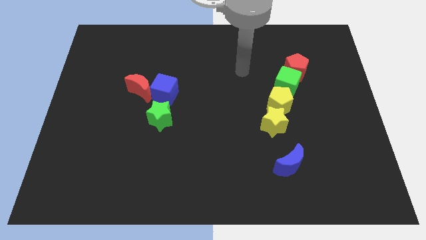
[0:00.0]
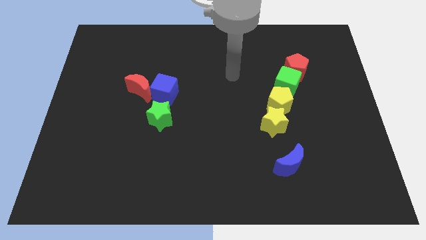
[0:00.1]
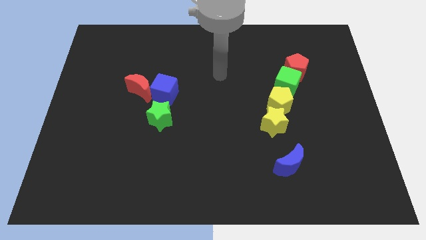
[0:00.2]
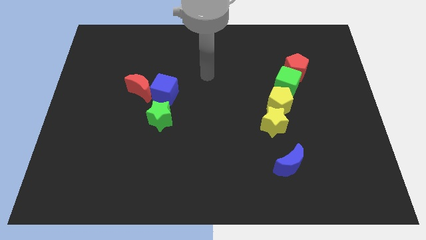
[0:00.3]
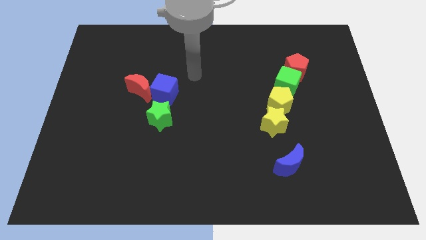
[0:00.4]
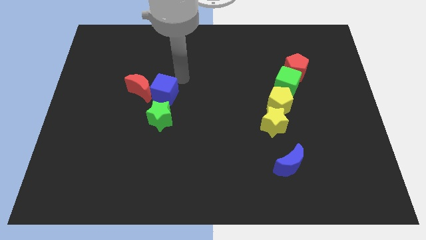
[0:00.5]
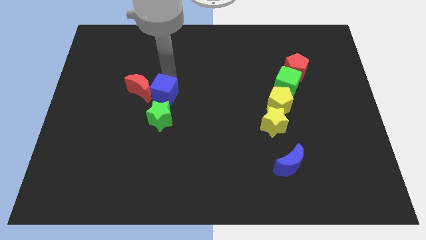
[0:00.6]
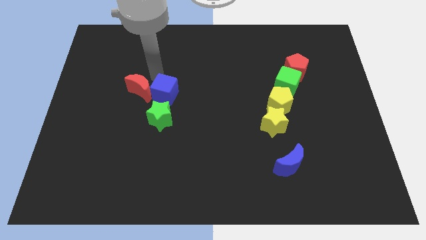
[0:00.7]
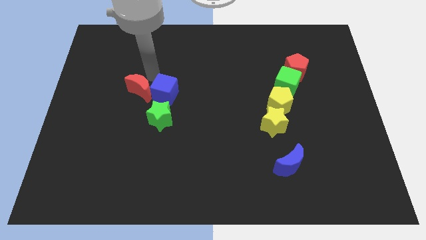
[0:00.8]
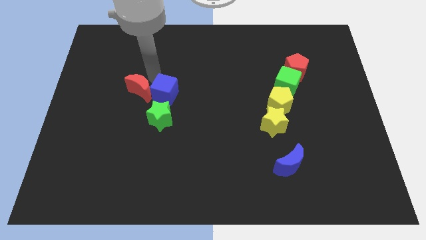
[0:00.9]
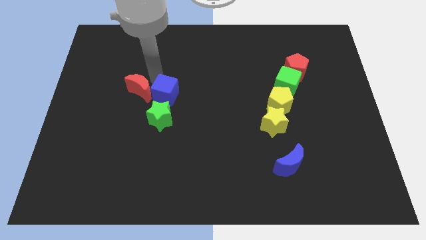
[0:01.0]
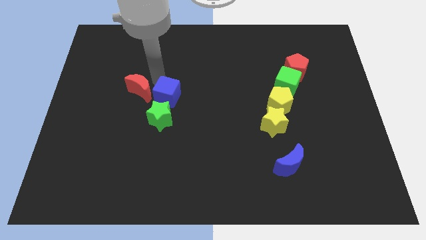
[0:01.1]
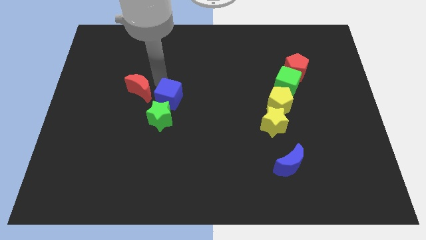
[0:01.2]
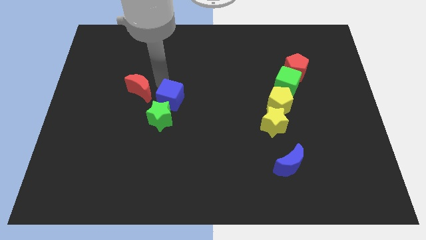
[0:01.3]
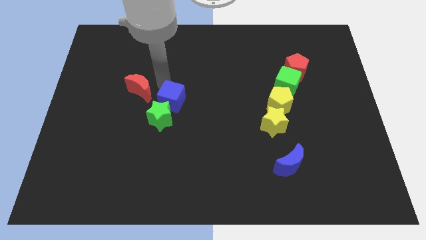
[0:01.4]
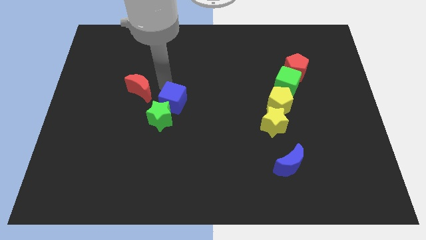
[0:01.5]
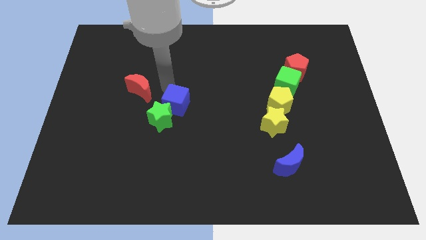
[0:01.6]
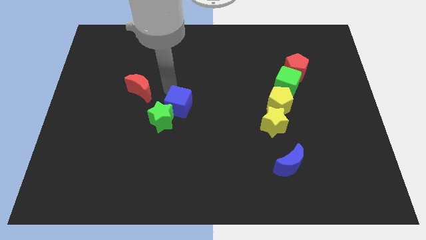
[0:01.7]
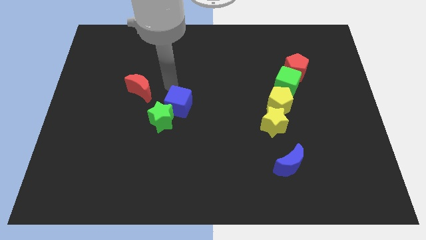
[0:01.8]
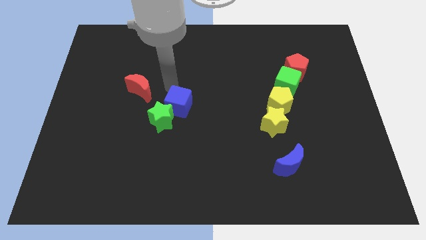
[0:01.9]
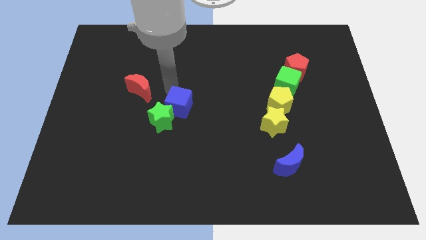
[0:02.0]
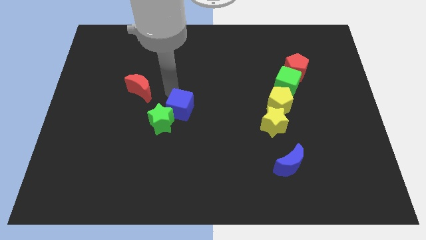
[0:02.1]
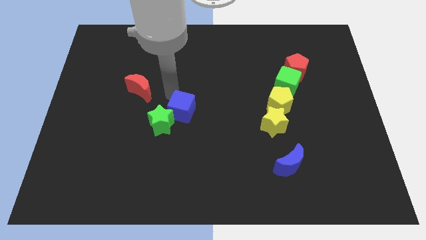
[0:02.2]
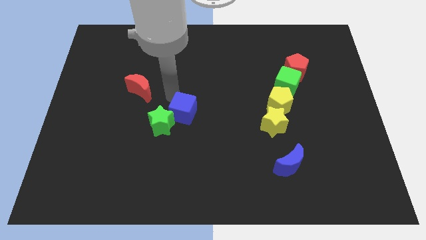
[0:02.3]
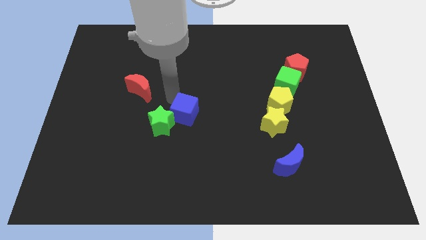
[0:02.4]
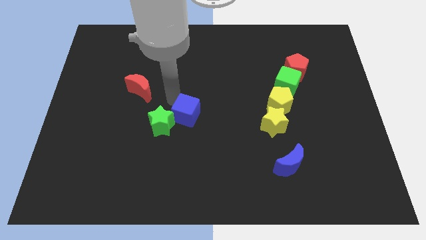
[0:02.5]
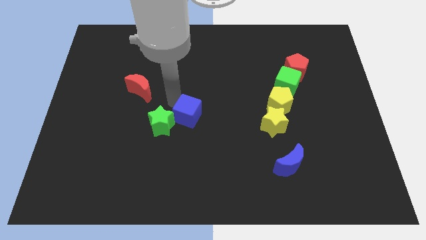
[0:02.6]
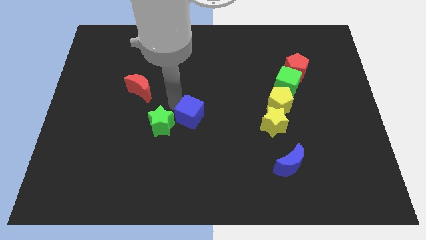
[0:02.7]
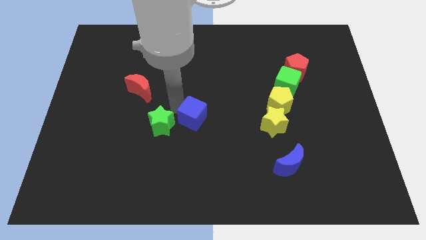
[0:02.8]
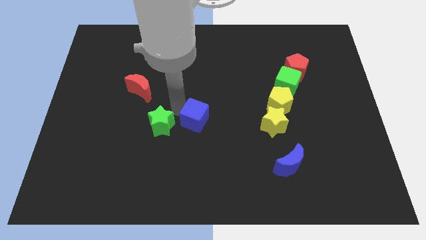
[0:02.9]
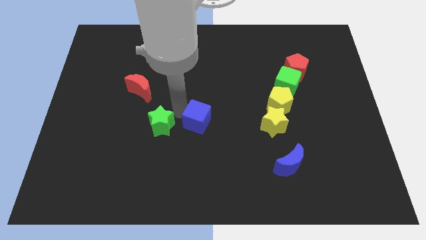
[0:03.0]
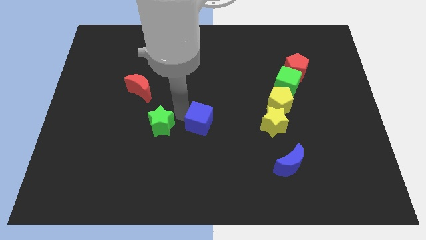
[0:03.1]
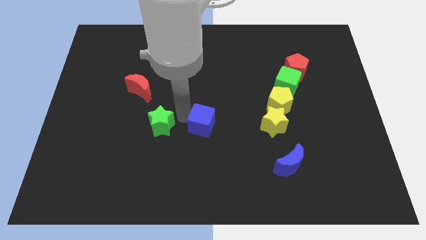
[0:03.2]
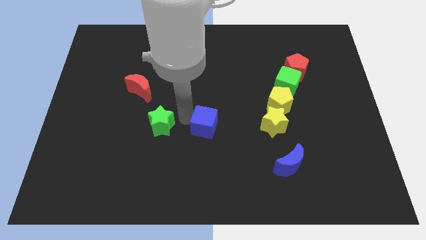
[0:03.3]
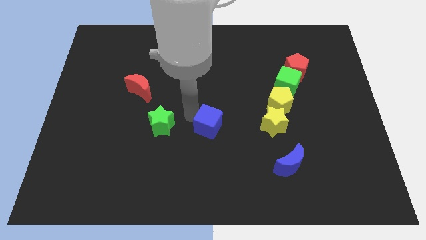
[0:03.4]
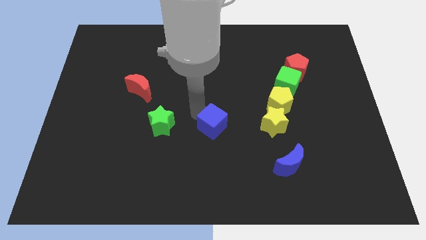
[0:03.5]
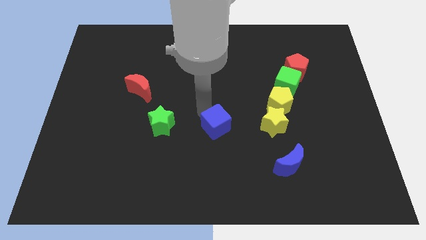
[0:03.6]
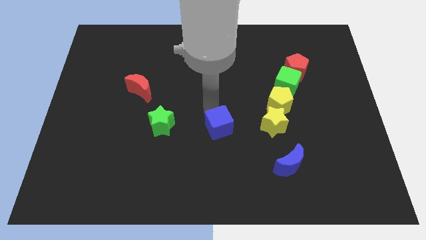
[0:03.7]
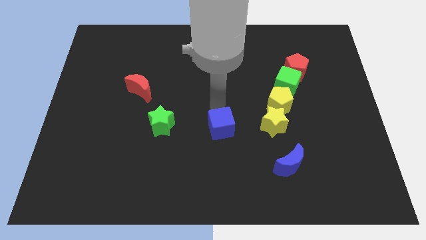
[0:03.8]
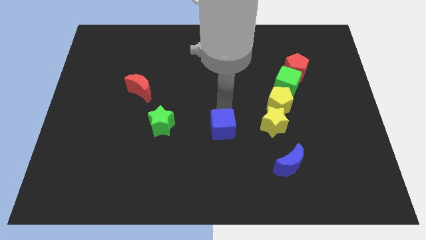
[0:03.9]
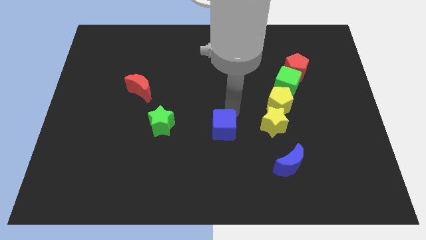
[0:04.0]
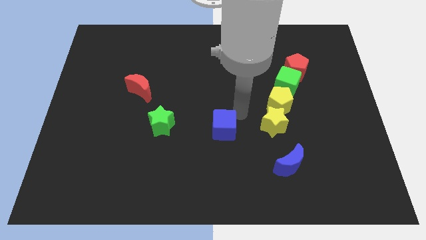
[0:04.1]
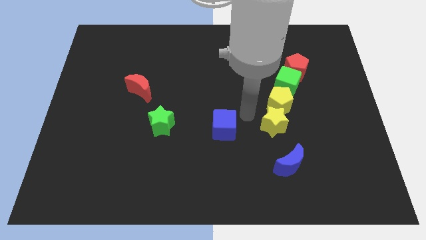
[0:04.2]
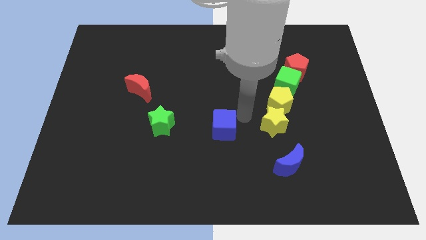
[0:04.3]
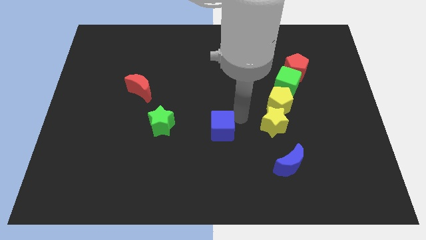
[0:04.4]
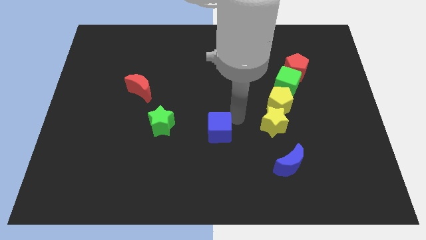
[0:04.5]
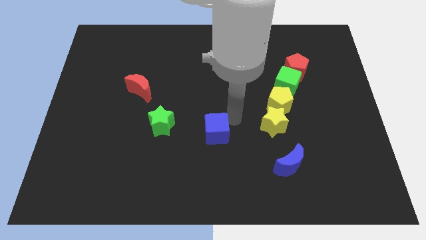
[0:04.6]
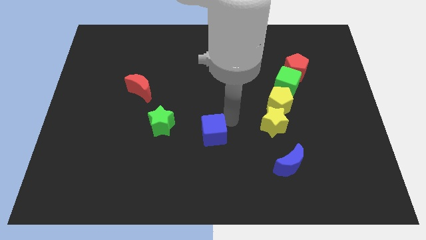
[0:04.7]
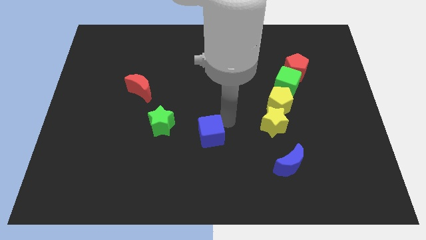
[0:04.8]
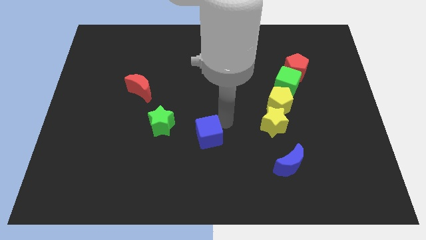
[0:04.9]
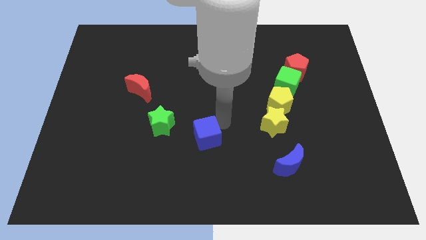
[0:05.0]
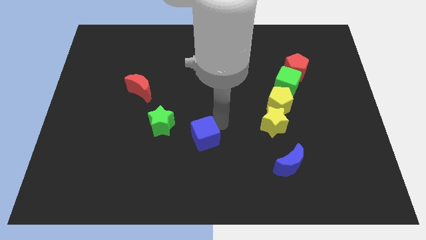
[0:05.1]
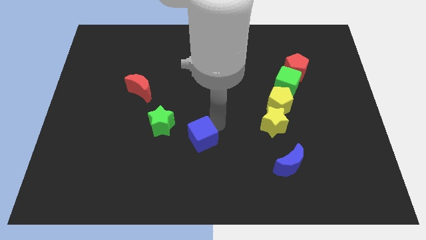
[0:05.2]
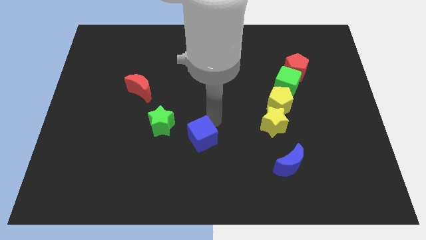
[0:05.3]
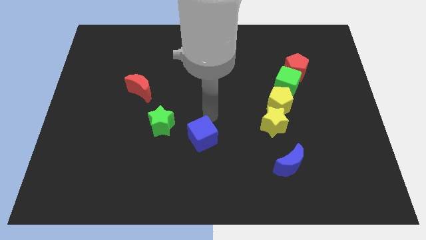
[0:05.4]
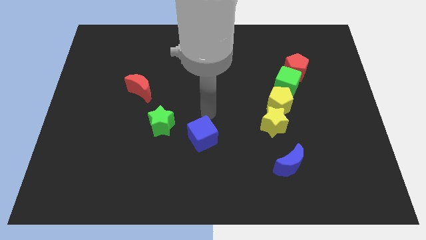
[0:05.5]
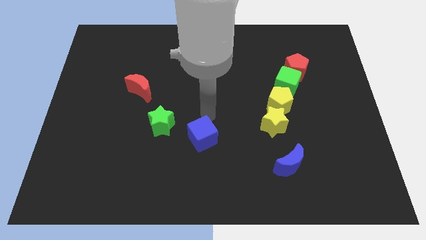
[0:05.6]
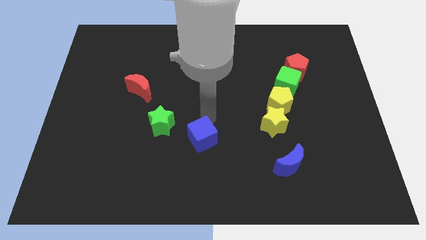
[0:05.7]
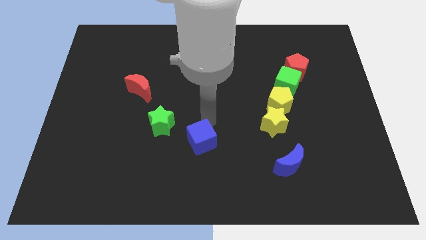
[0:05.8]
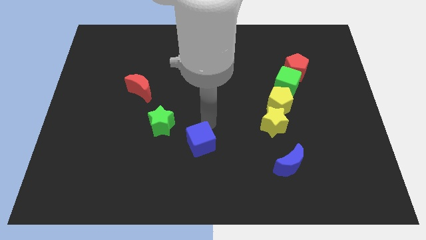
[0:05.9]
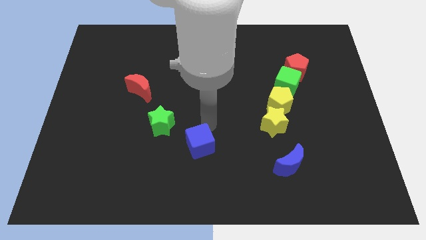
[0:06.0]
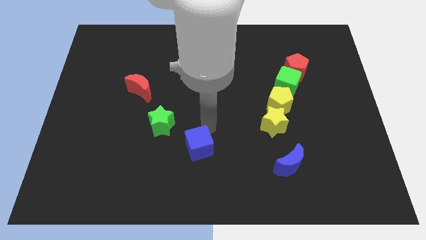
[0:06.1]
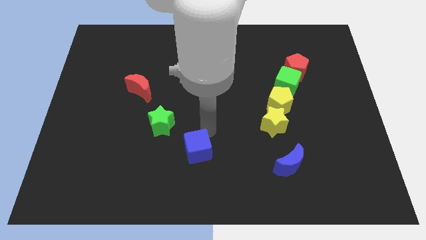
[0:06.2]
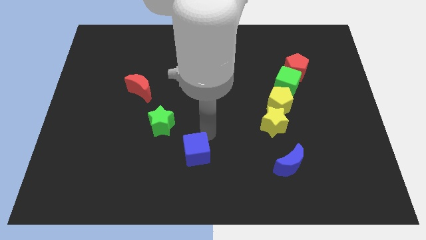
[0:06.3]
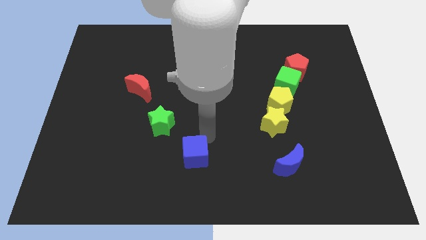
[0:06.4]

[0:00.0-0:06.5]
put the blue cube to the bottom

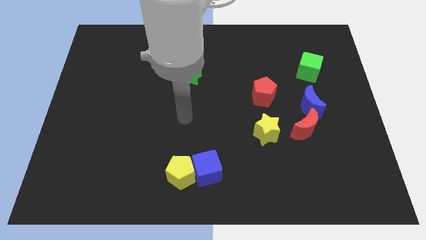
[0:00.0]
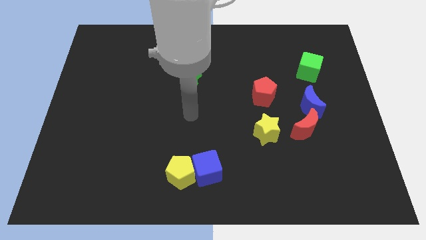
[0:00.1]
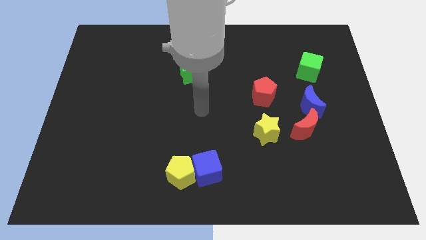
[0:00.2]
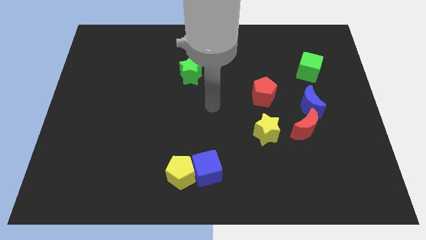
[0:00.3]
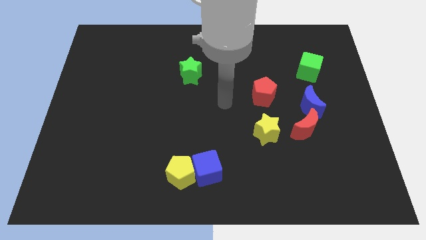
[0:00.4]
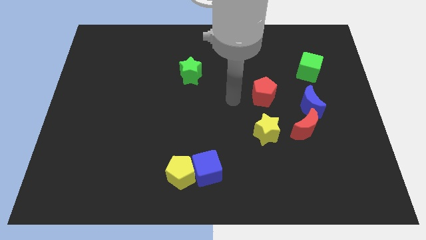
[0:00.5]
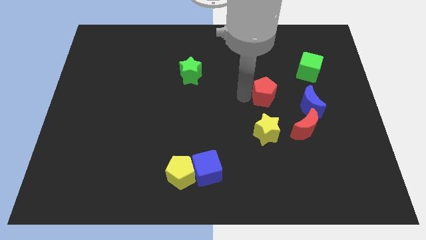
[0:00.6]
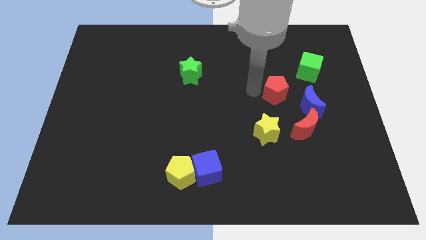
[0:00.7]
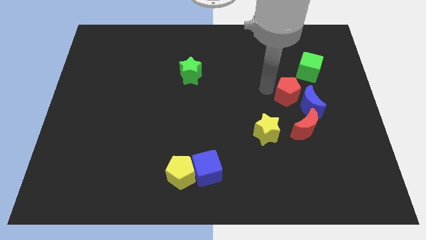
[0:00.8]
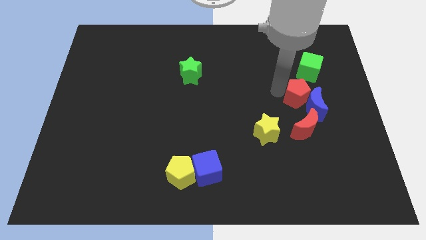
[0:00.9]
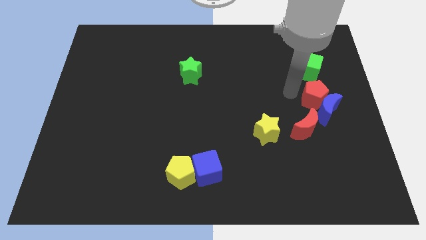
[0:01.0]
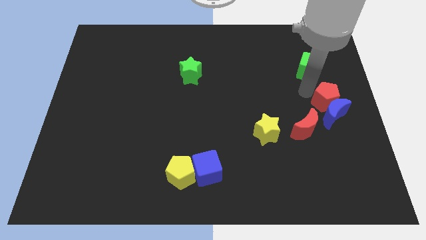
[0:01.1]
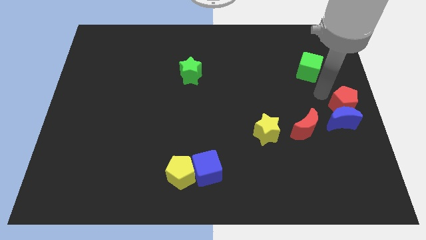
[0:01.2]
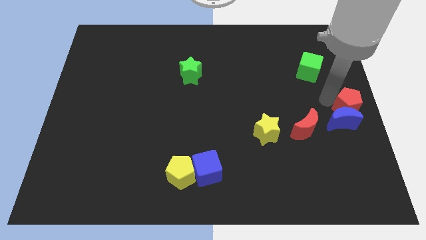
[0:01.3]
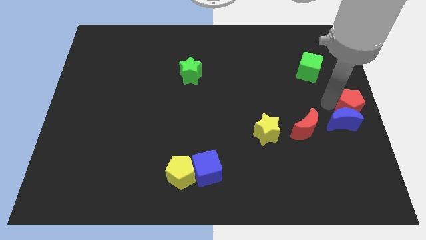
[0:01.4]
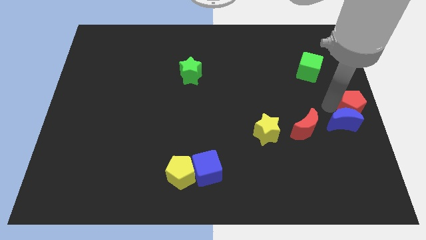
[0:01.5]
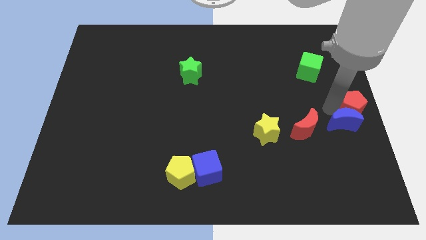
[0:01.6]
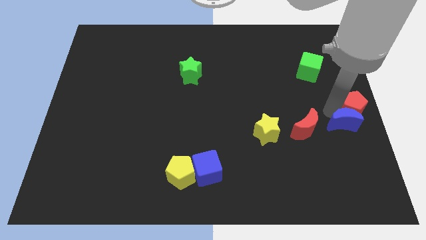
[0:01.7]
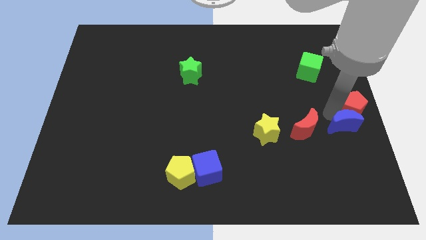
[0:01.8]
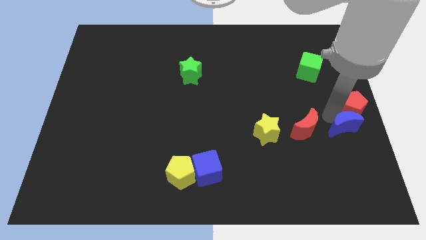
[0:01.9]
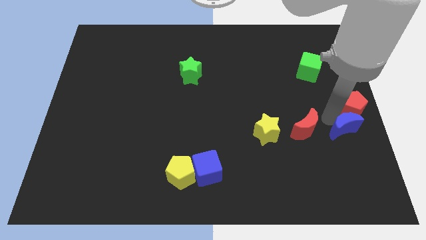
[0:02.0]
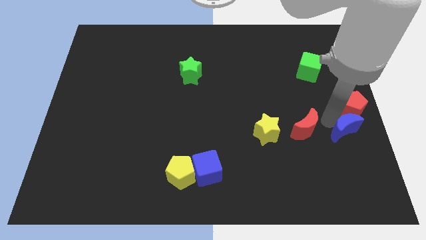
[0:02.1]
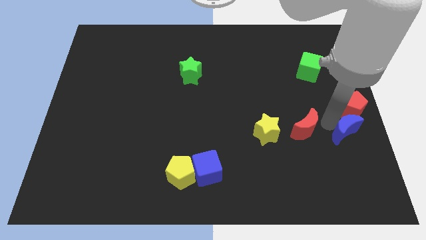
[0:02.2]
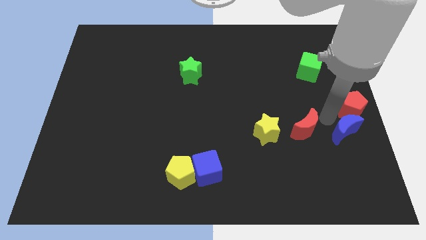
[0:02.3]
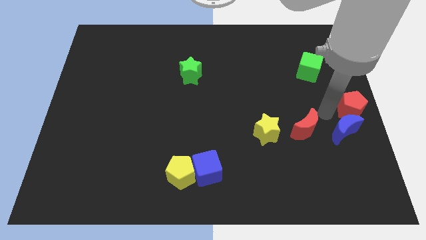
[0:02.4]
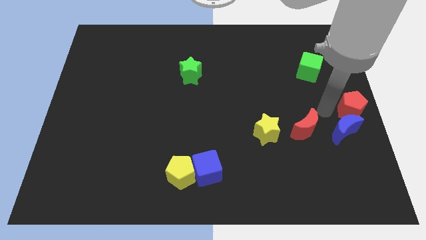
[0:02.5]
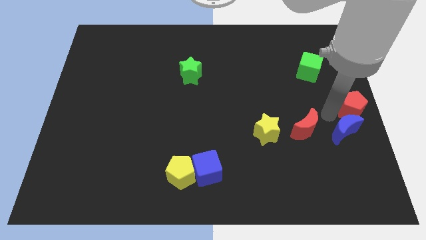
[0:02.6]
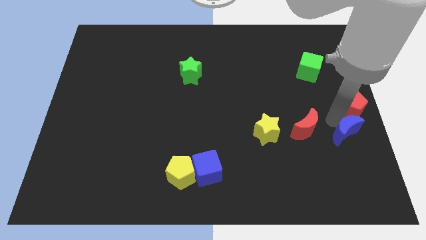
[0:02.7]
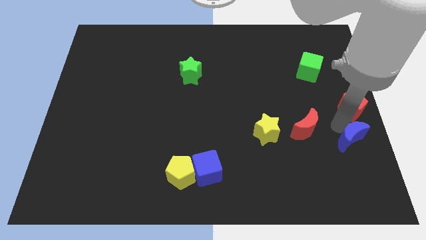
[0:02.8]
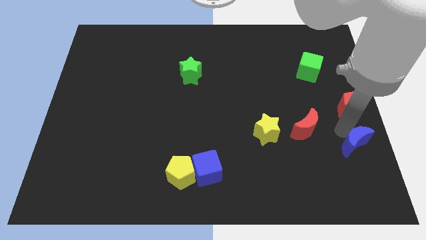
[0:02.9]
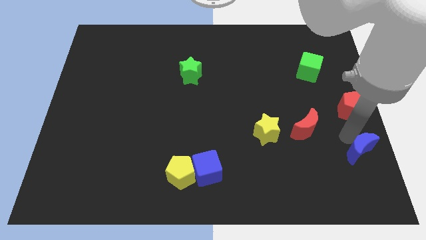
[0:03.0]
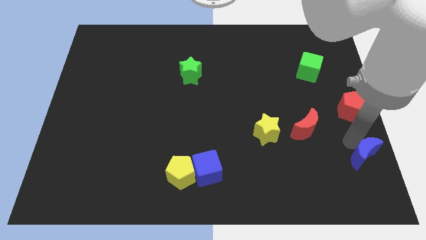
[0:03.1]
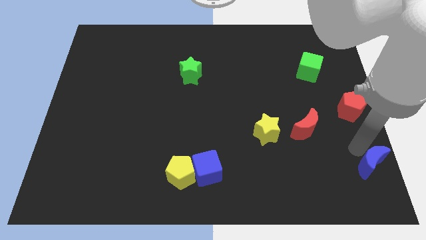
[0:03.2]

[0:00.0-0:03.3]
slide the blue moon to the bottom right of the board
